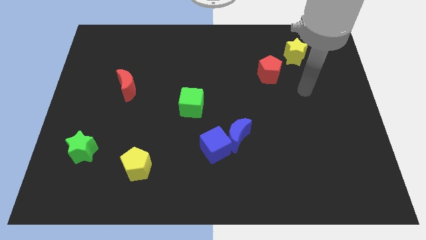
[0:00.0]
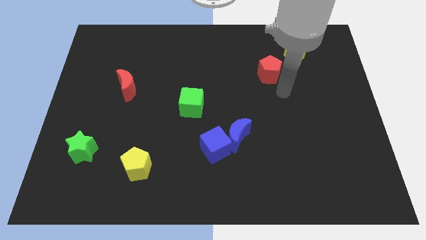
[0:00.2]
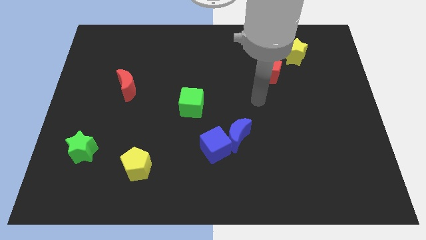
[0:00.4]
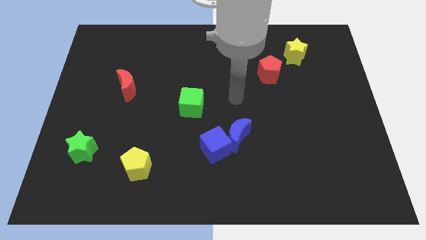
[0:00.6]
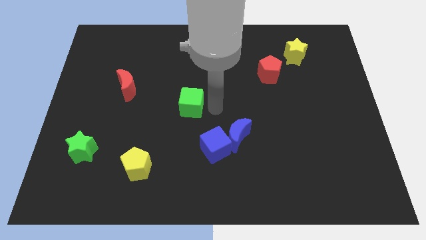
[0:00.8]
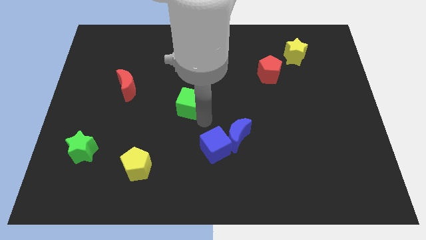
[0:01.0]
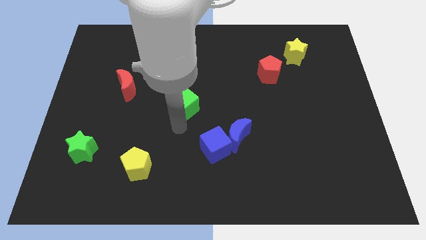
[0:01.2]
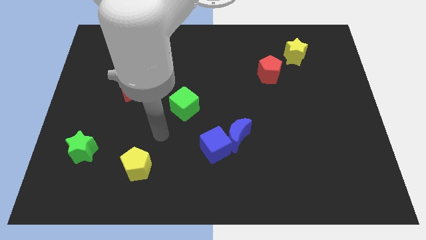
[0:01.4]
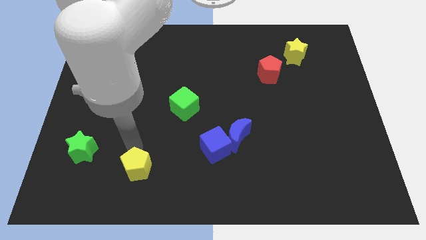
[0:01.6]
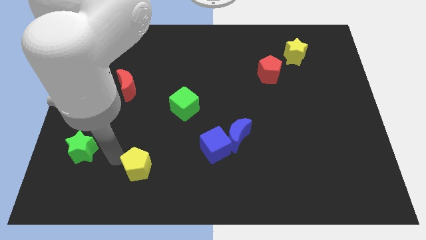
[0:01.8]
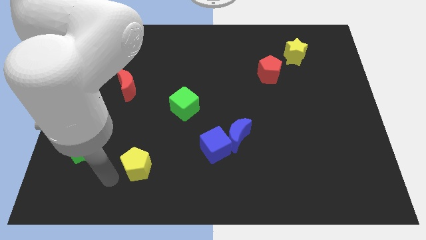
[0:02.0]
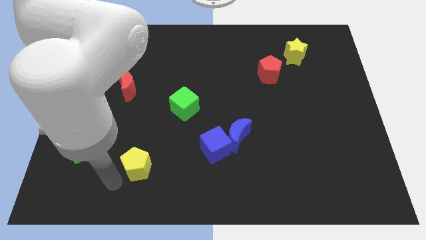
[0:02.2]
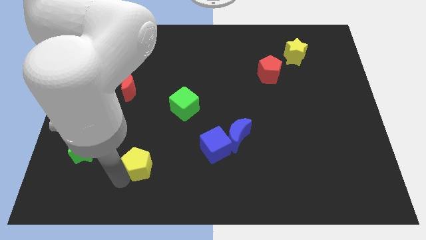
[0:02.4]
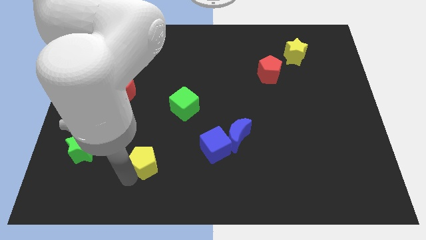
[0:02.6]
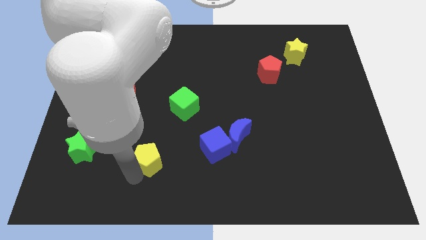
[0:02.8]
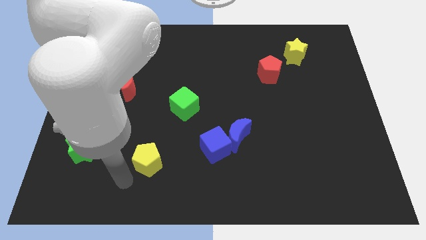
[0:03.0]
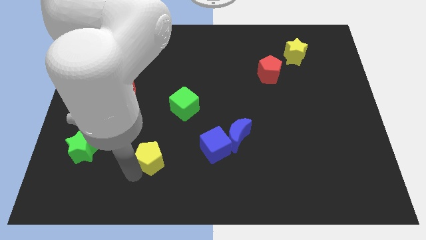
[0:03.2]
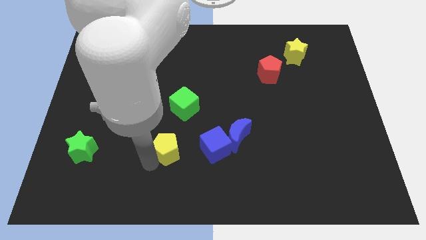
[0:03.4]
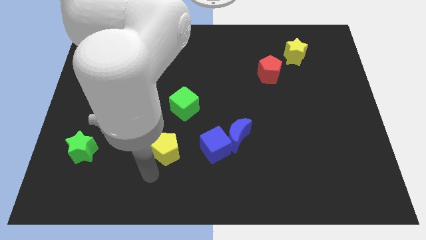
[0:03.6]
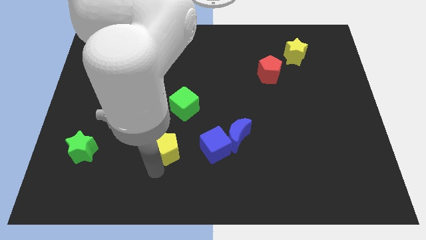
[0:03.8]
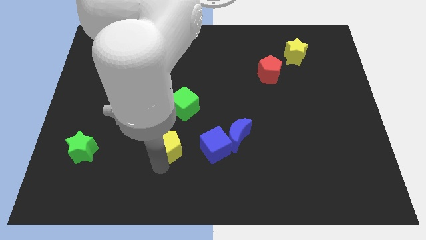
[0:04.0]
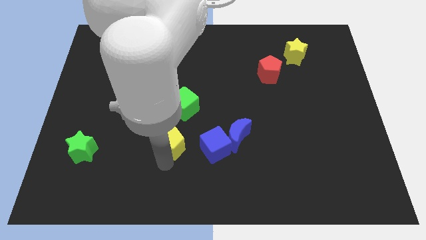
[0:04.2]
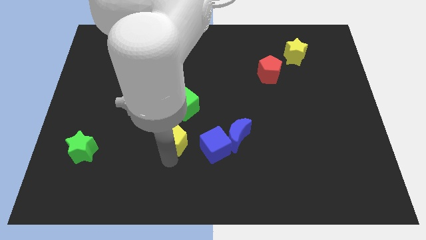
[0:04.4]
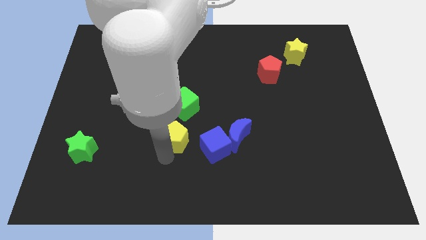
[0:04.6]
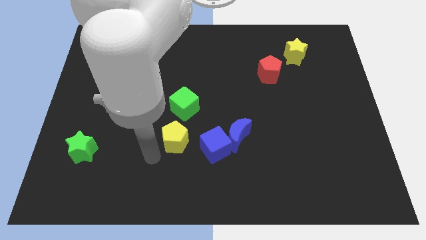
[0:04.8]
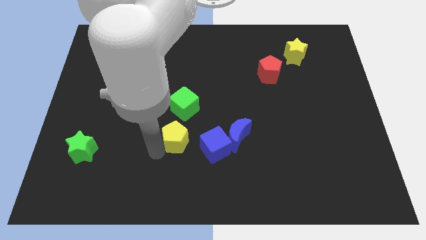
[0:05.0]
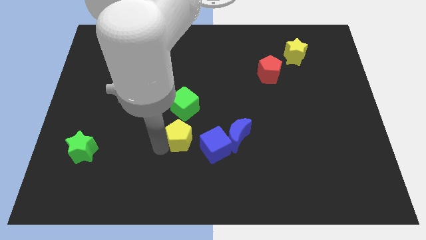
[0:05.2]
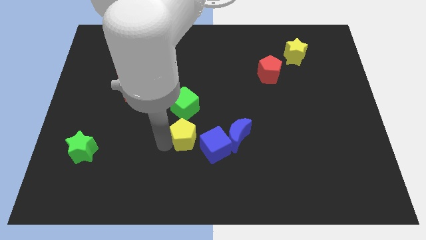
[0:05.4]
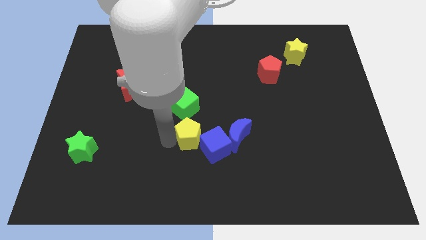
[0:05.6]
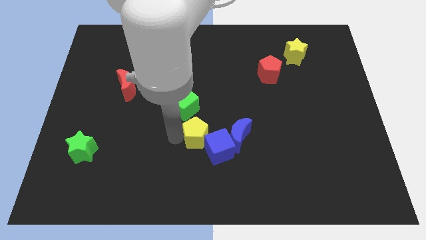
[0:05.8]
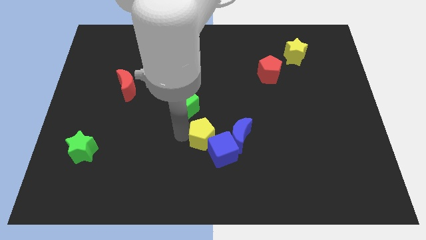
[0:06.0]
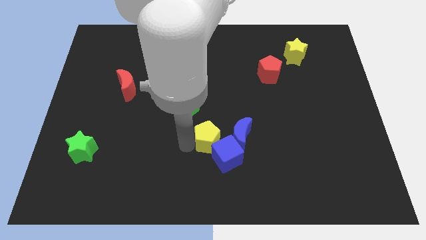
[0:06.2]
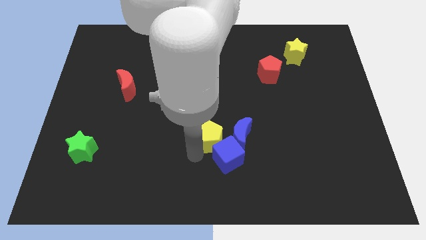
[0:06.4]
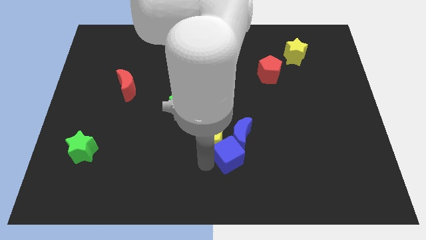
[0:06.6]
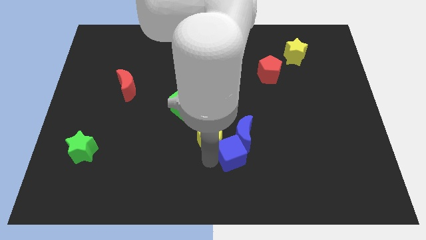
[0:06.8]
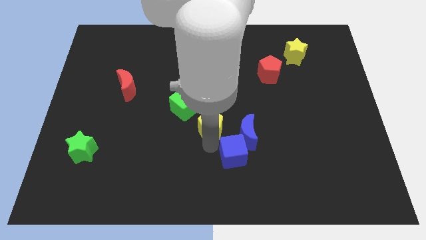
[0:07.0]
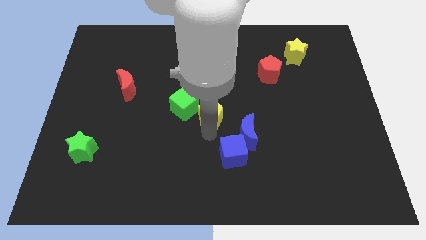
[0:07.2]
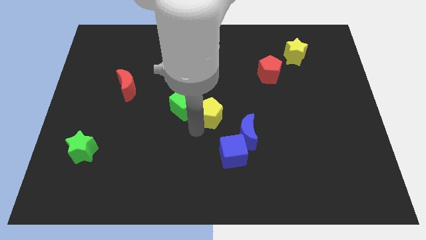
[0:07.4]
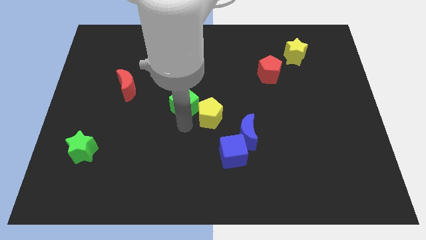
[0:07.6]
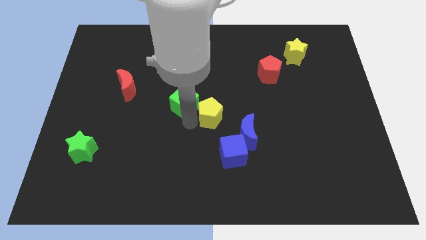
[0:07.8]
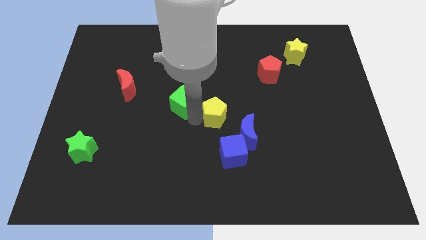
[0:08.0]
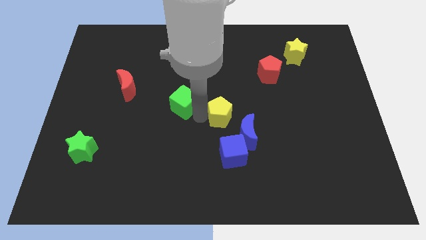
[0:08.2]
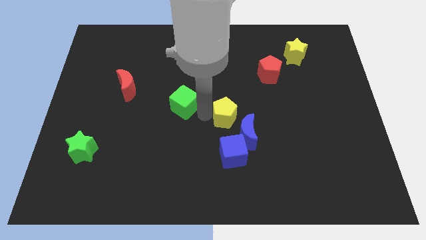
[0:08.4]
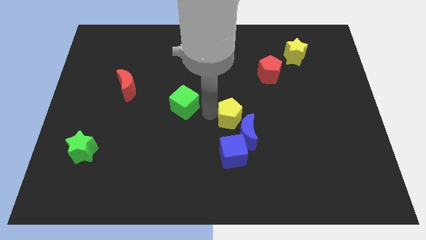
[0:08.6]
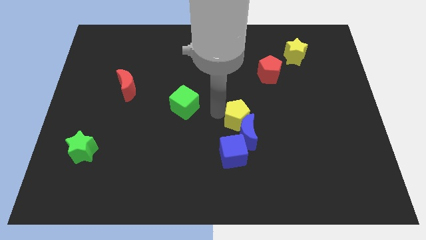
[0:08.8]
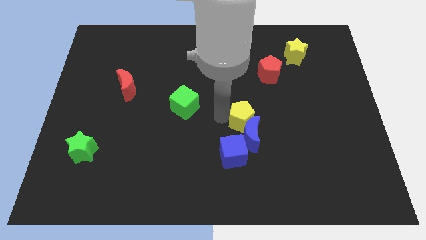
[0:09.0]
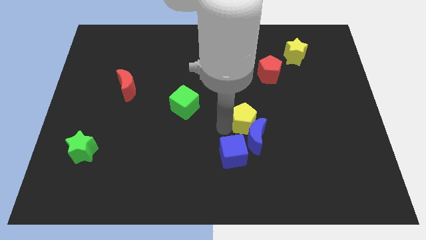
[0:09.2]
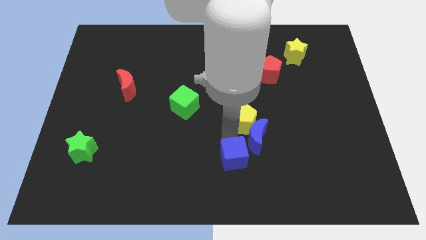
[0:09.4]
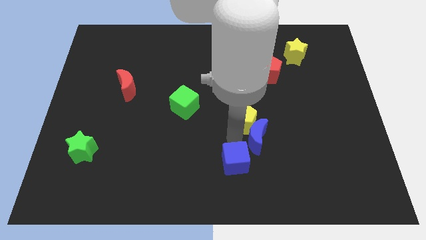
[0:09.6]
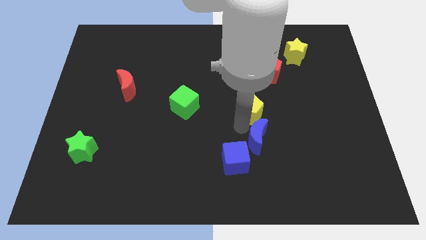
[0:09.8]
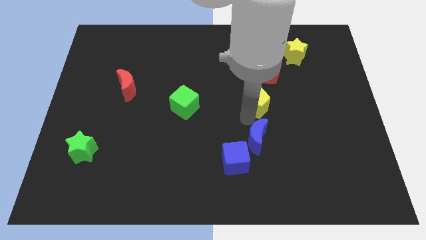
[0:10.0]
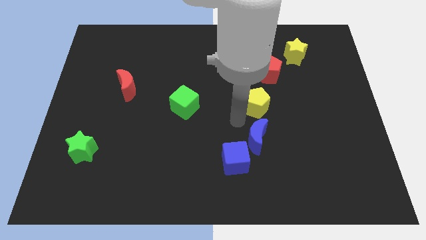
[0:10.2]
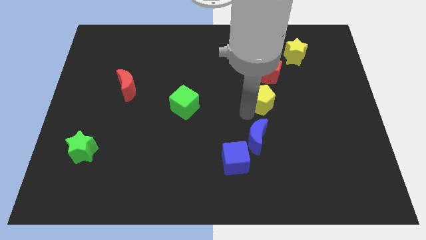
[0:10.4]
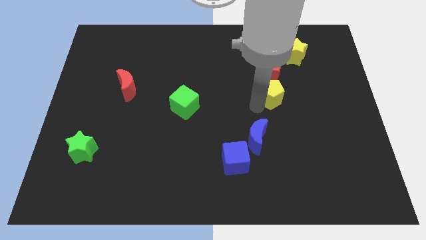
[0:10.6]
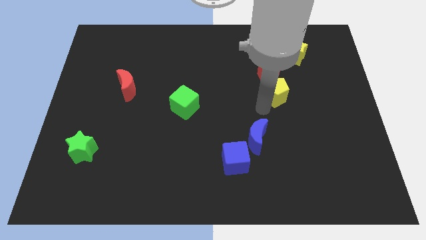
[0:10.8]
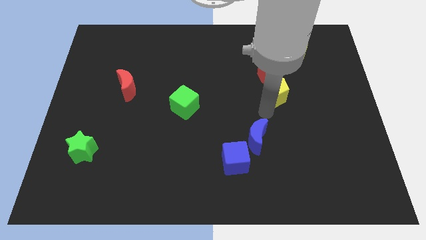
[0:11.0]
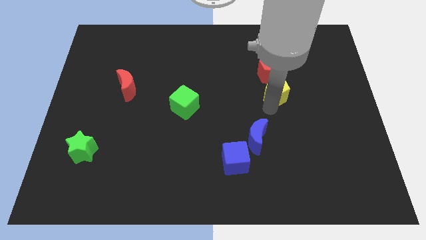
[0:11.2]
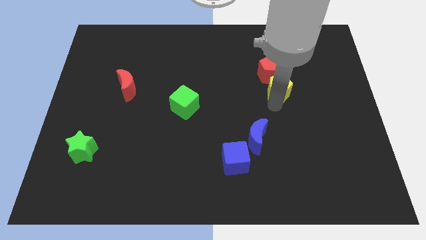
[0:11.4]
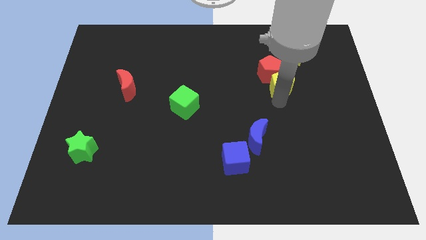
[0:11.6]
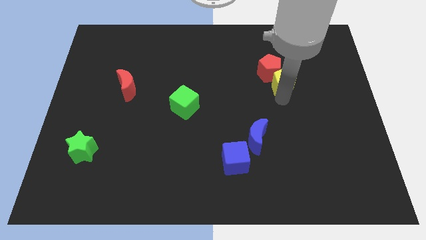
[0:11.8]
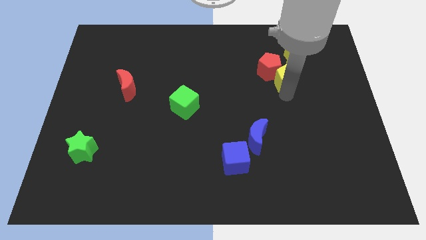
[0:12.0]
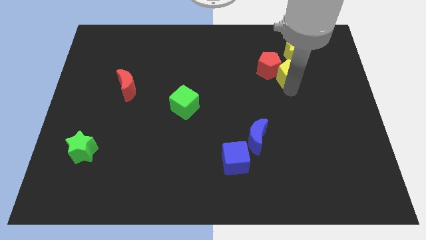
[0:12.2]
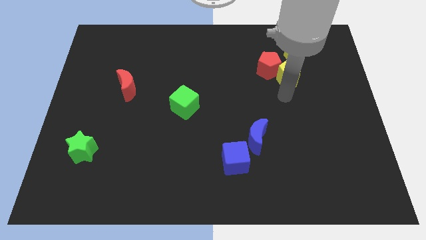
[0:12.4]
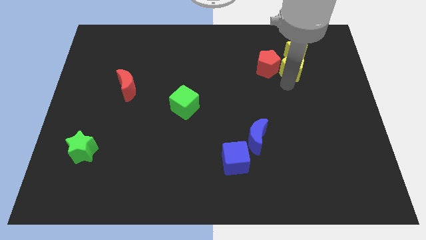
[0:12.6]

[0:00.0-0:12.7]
move the yellow pentagon close to the yellow star

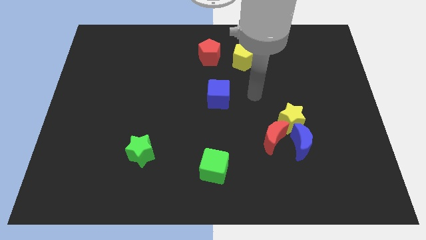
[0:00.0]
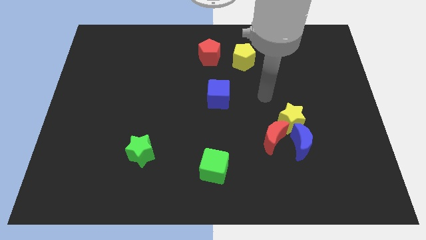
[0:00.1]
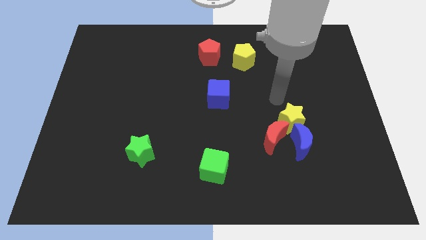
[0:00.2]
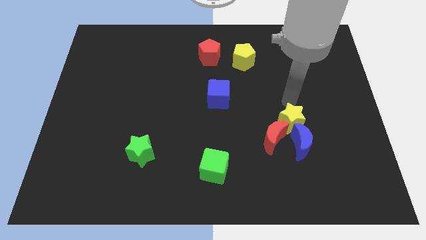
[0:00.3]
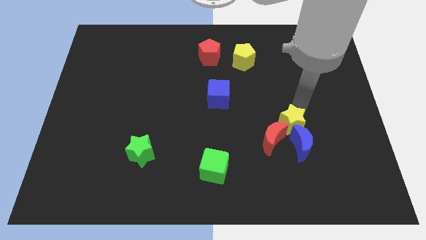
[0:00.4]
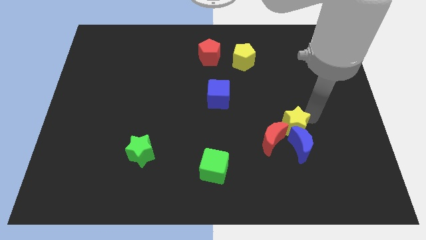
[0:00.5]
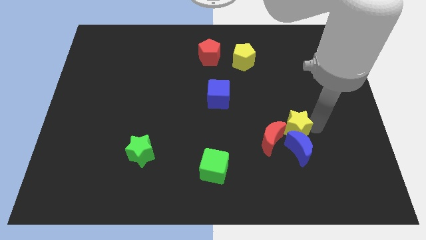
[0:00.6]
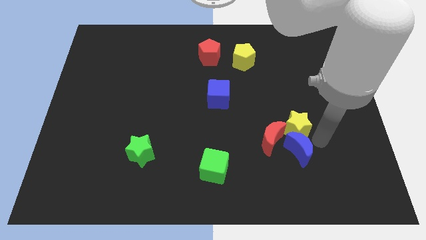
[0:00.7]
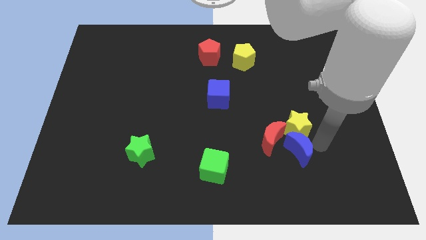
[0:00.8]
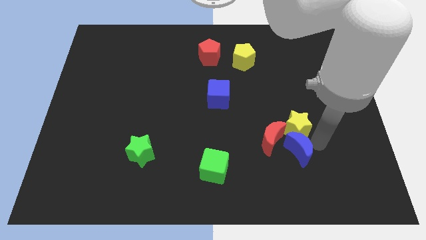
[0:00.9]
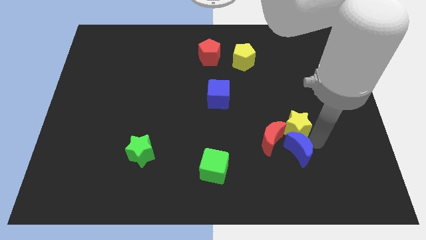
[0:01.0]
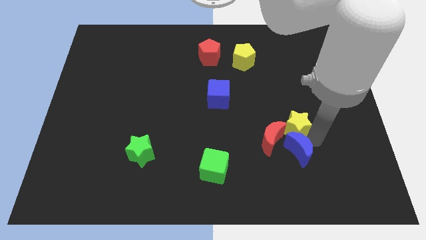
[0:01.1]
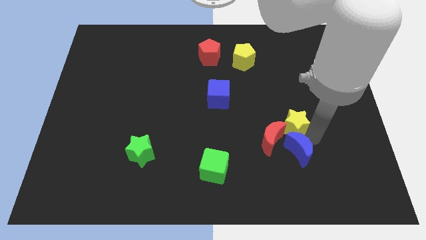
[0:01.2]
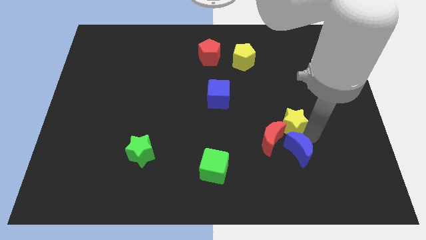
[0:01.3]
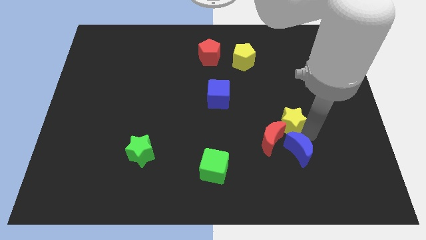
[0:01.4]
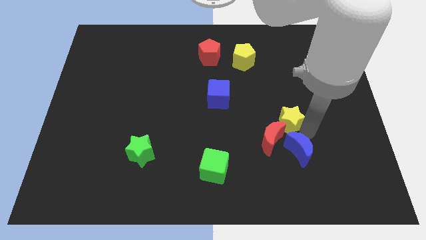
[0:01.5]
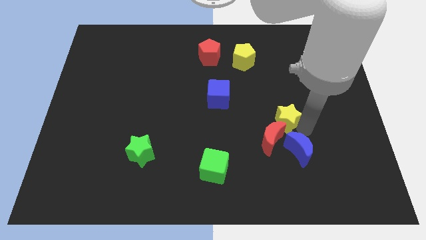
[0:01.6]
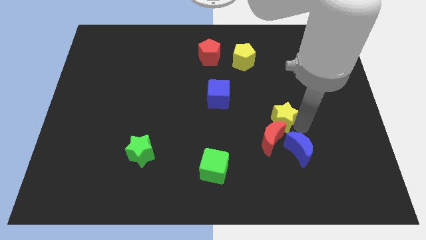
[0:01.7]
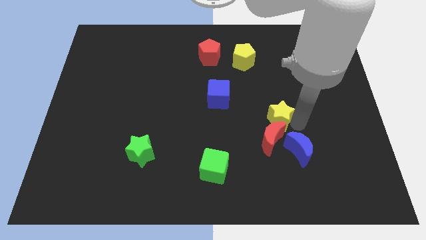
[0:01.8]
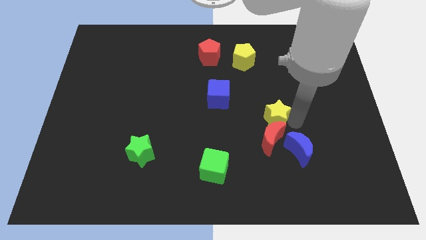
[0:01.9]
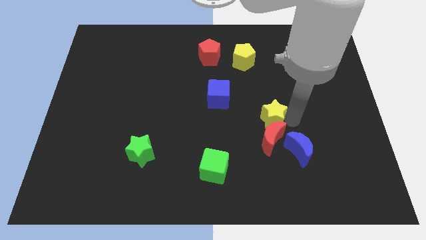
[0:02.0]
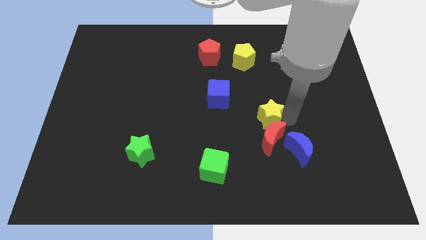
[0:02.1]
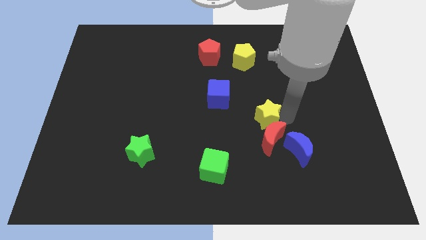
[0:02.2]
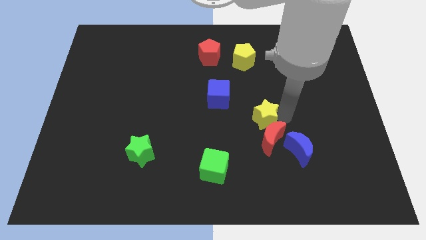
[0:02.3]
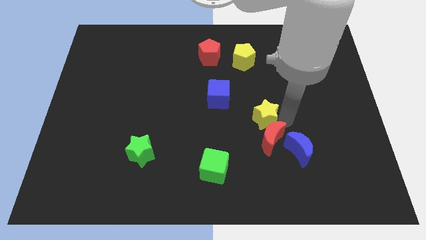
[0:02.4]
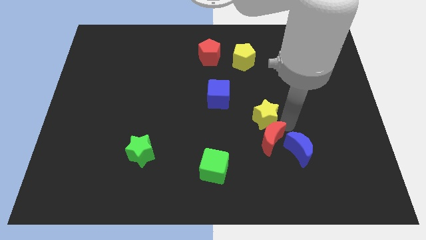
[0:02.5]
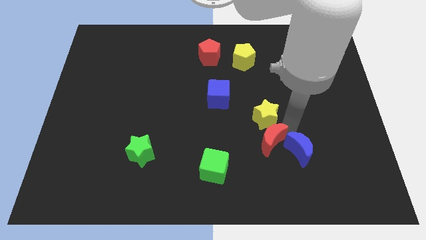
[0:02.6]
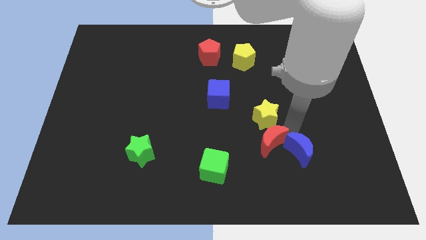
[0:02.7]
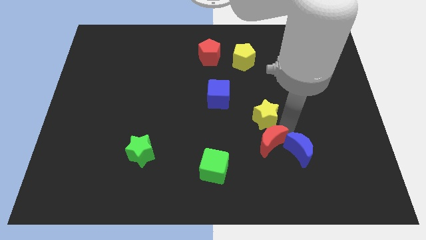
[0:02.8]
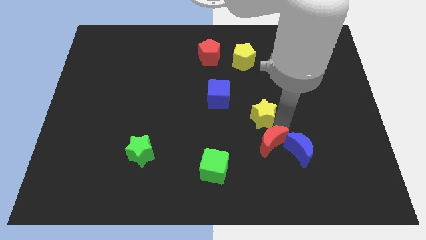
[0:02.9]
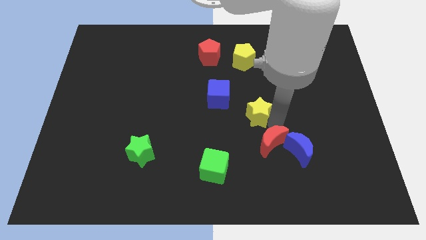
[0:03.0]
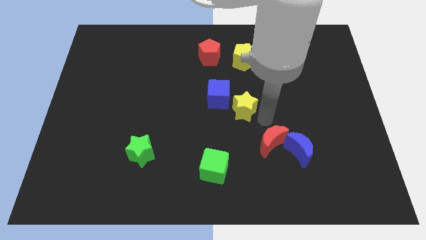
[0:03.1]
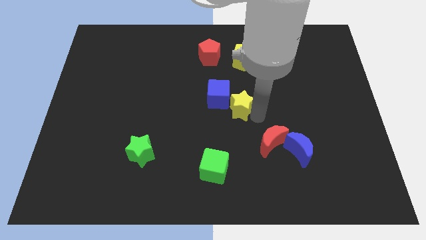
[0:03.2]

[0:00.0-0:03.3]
move the yellow star next to the blue cube
